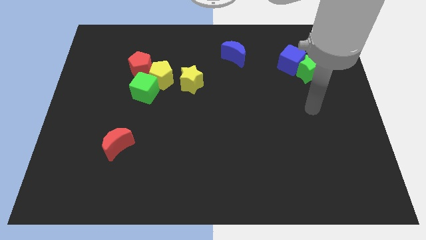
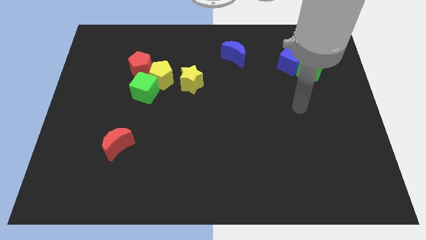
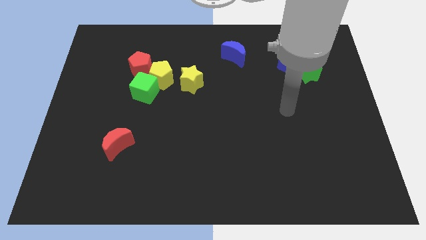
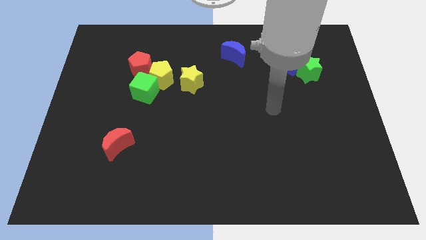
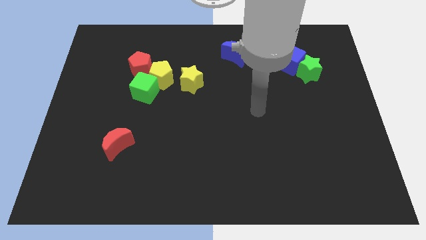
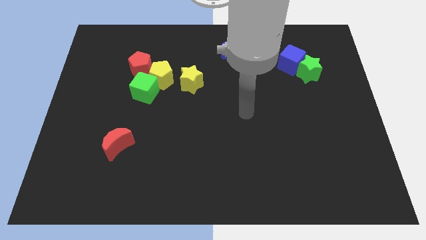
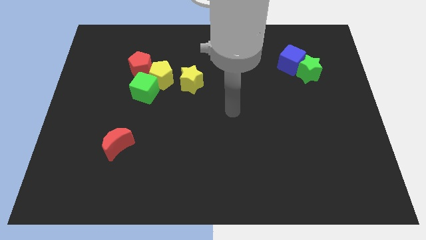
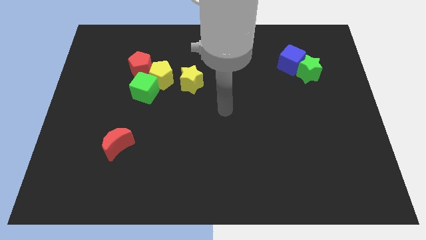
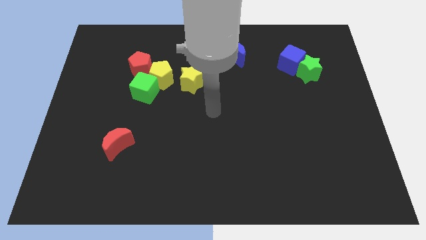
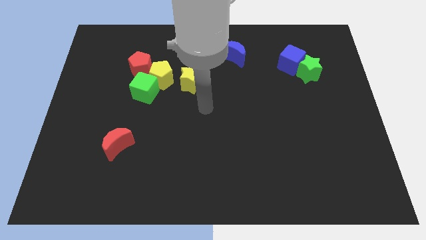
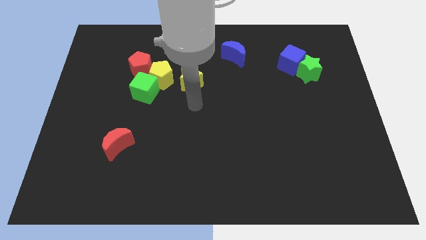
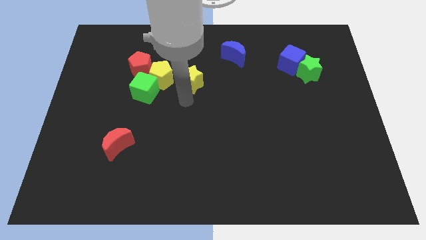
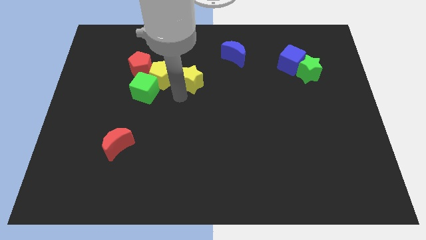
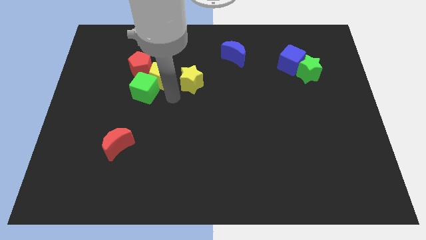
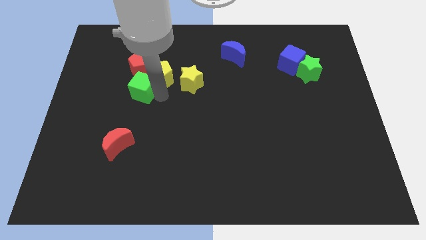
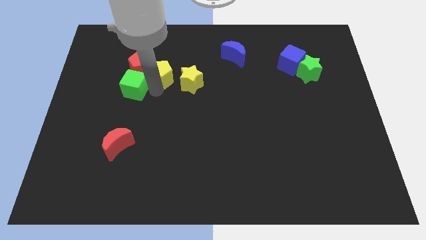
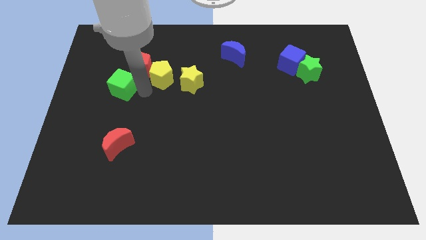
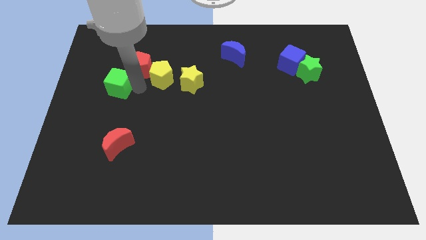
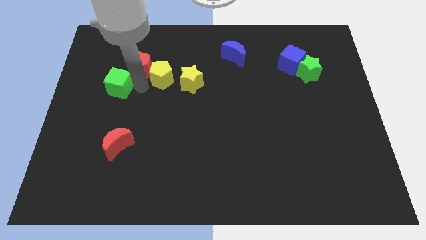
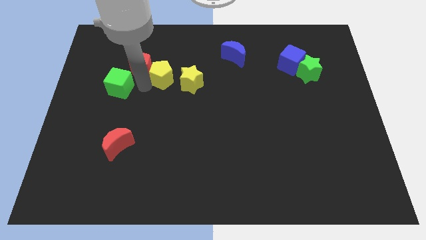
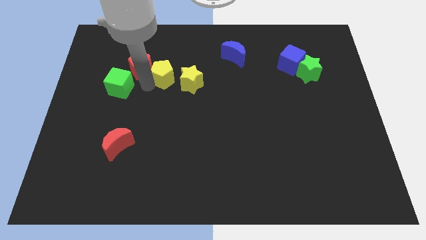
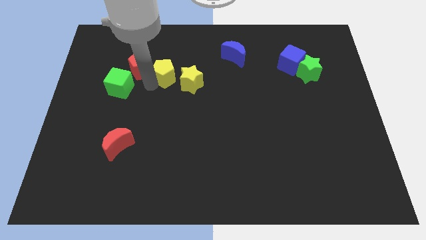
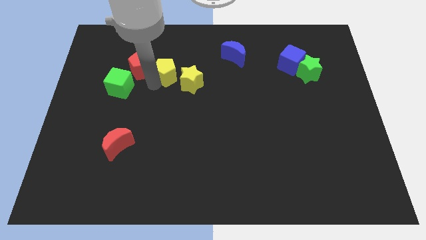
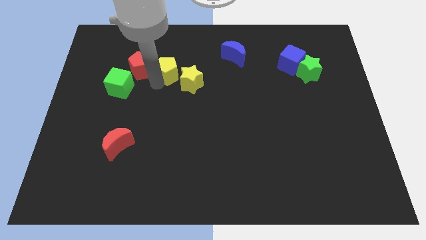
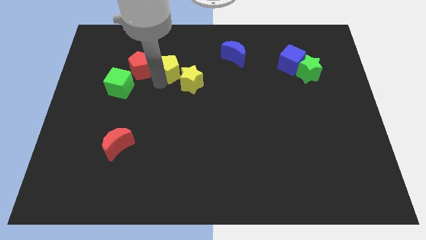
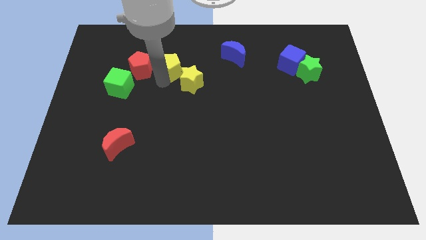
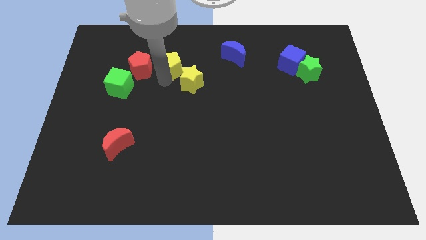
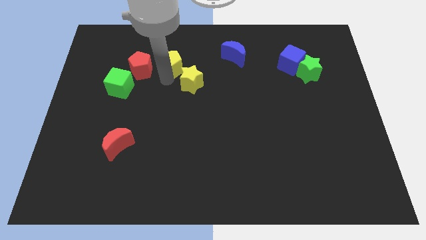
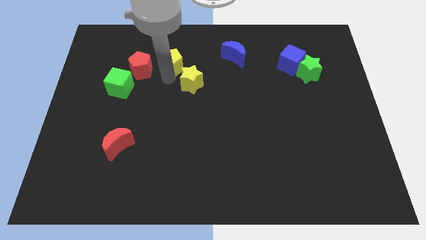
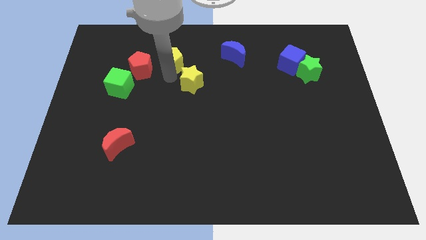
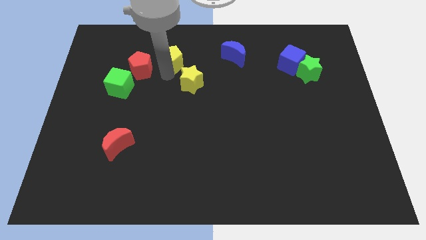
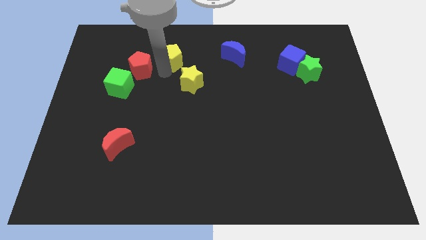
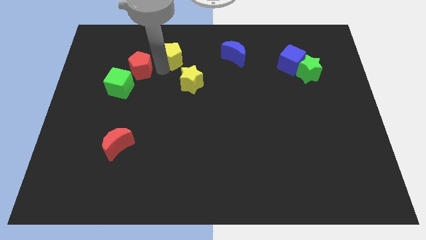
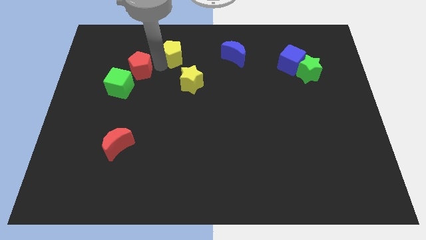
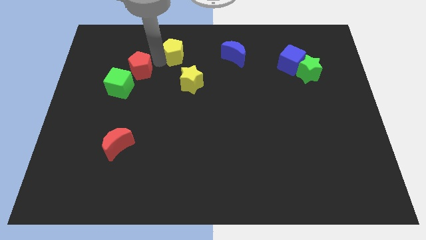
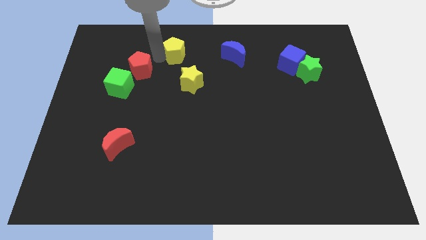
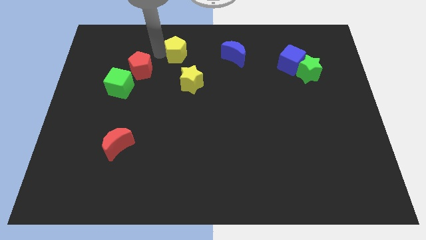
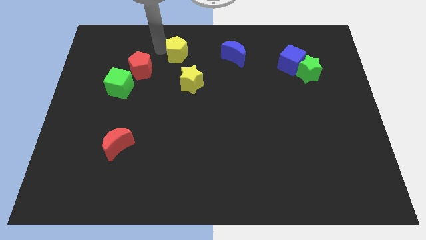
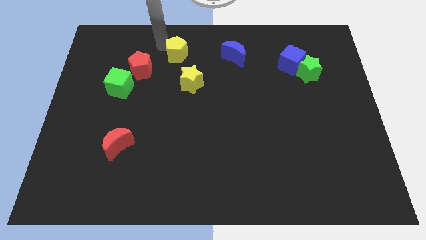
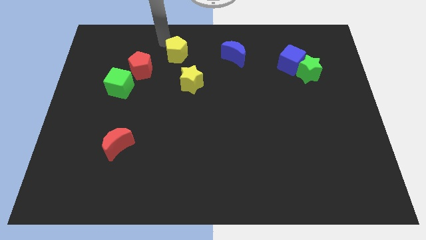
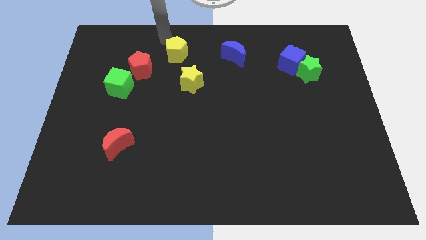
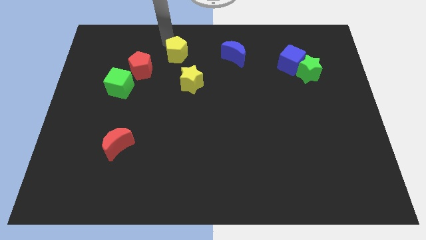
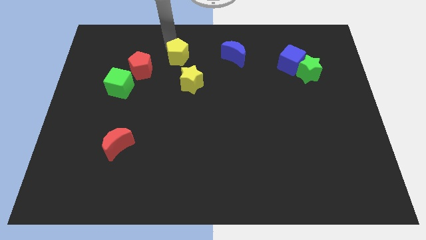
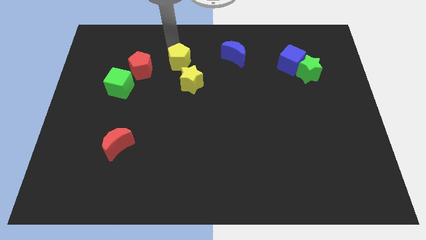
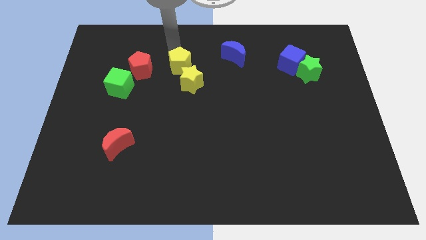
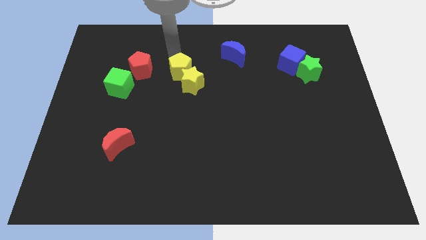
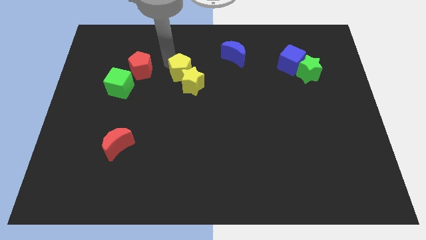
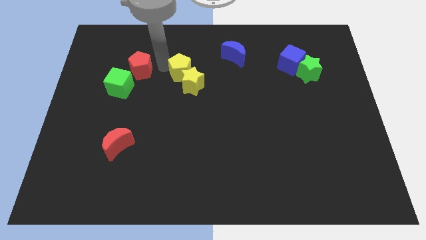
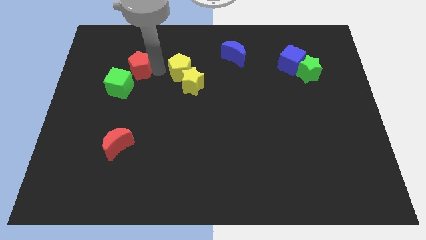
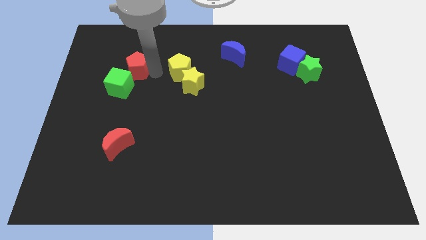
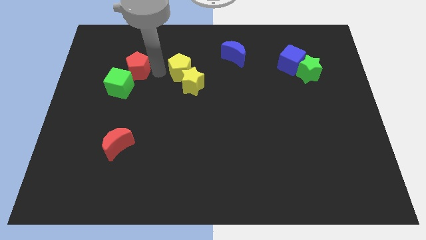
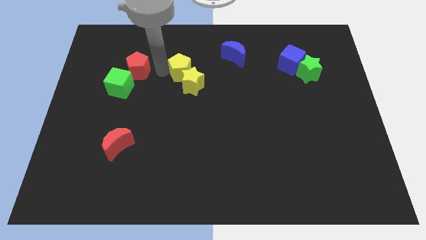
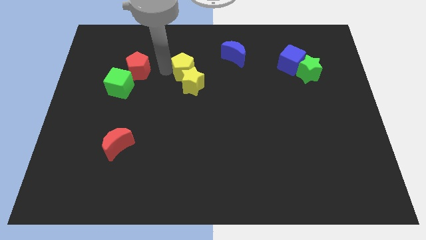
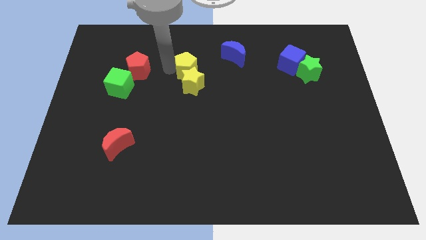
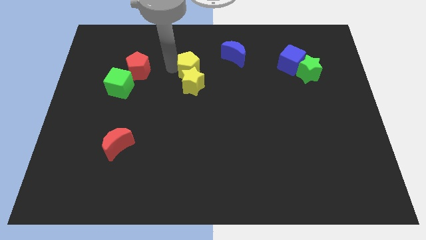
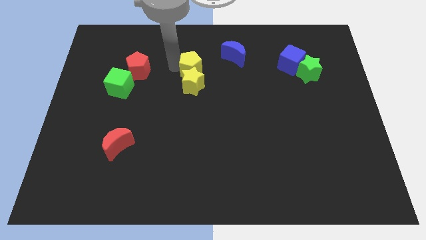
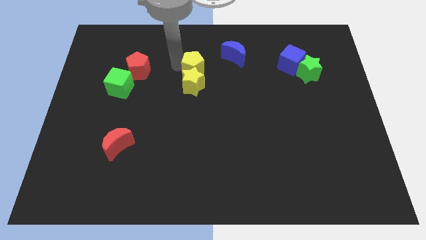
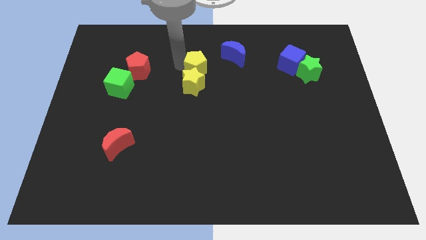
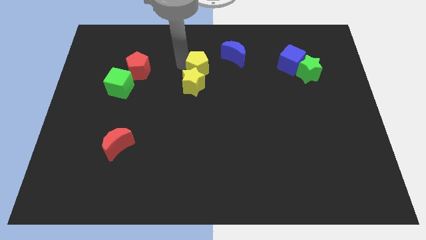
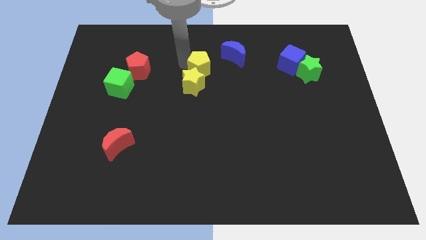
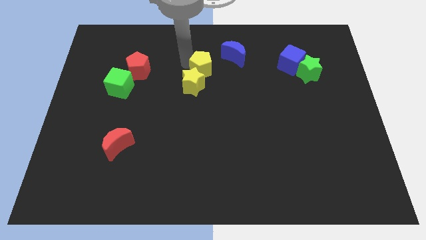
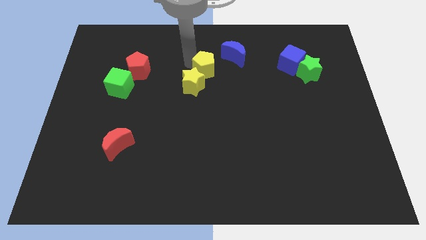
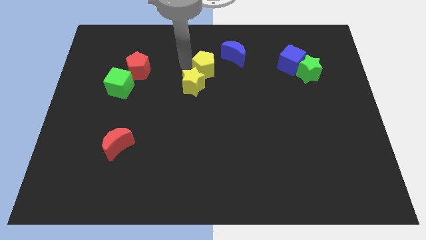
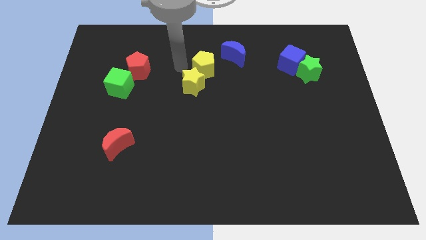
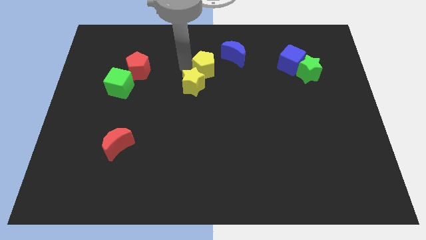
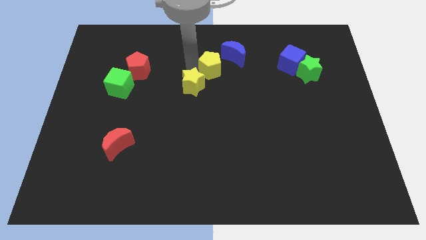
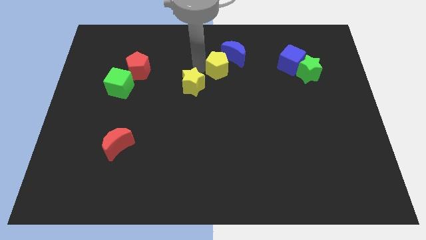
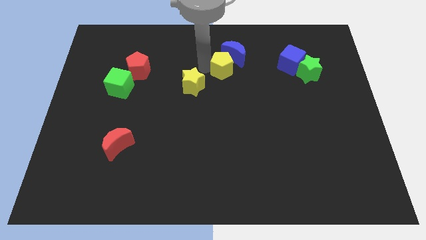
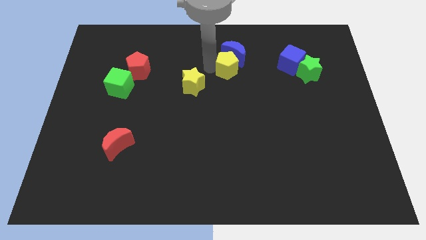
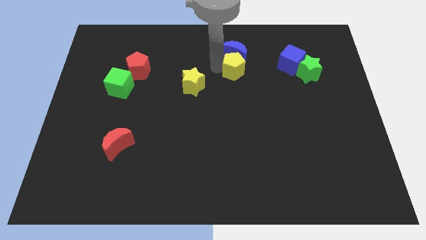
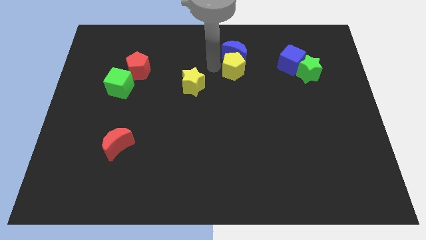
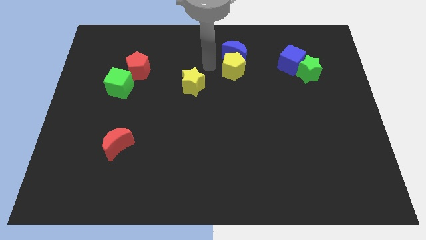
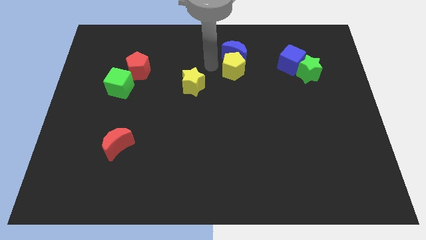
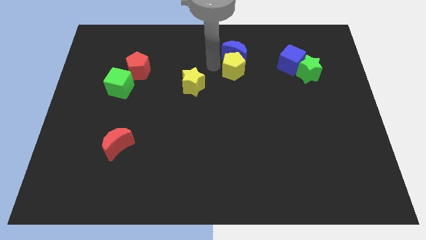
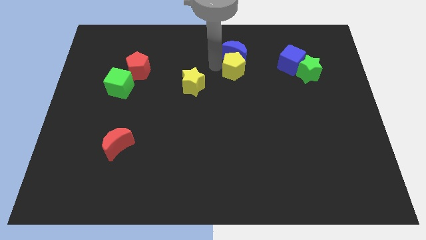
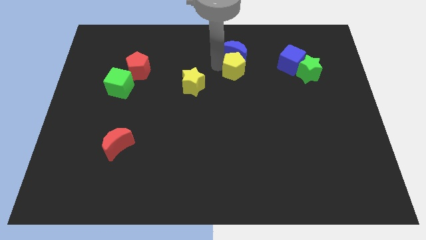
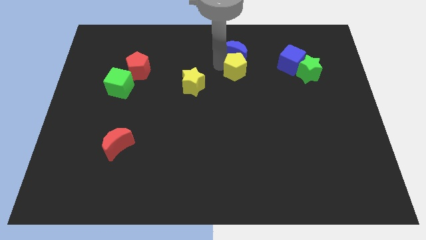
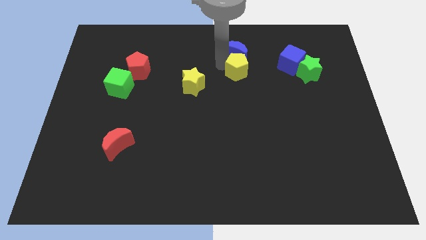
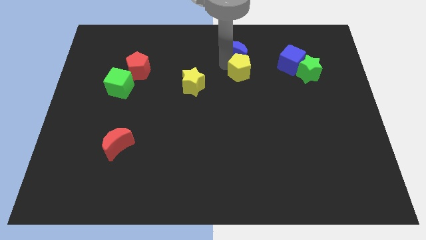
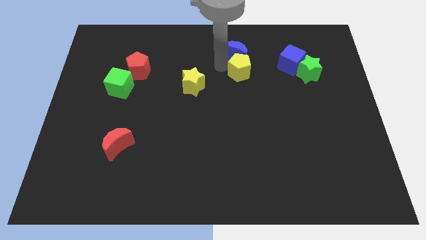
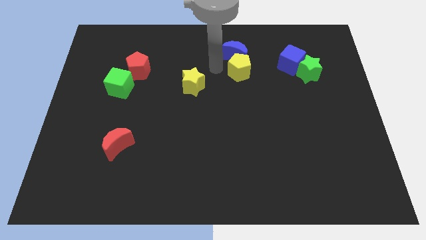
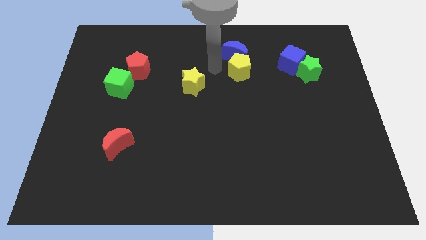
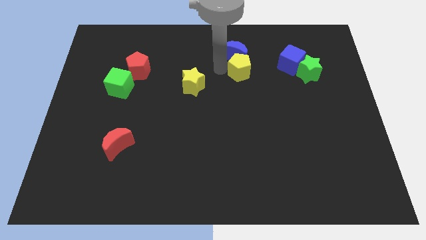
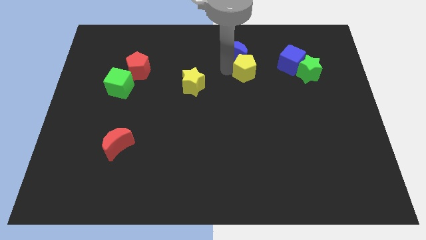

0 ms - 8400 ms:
move the yellow pentagon left of the green star
